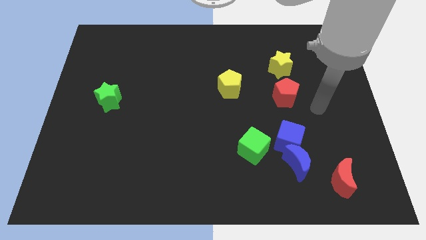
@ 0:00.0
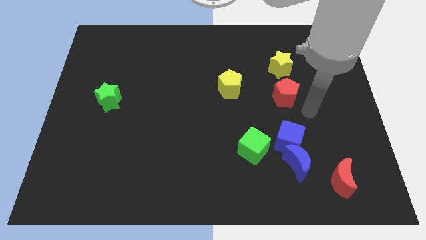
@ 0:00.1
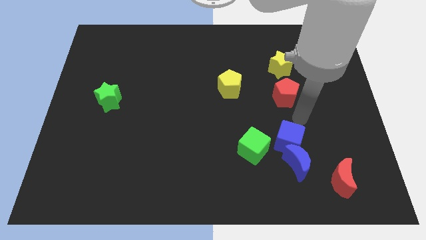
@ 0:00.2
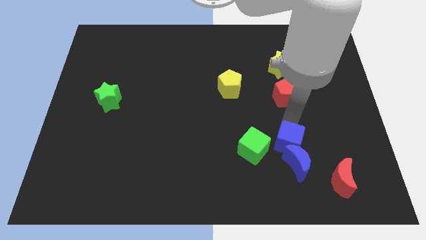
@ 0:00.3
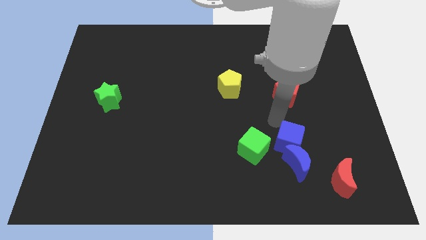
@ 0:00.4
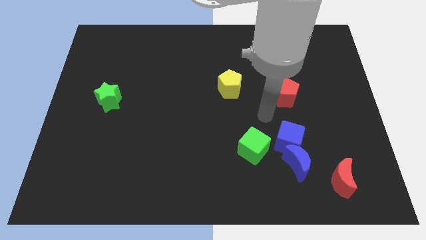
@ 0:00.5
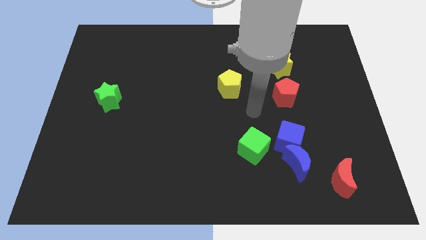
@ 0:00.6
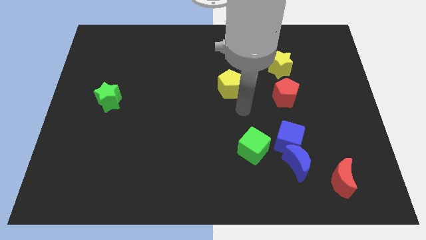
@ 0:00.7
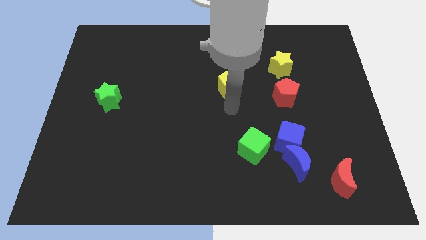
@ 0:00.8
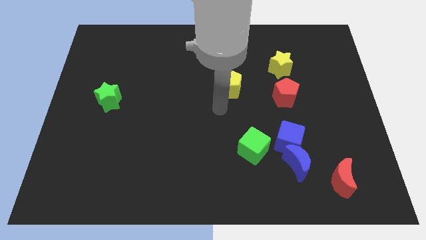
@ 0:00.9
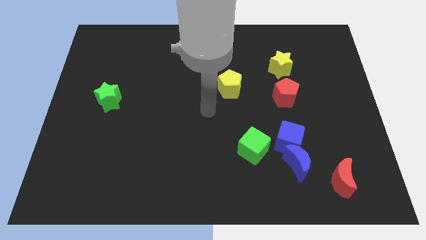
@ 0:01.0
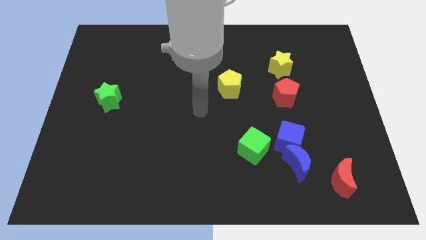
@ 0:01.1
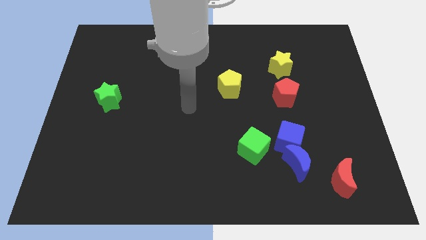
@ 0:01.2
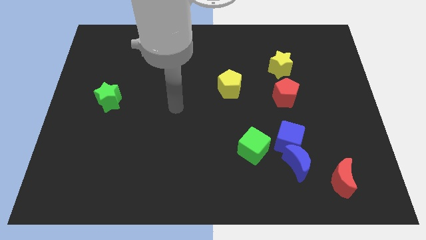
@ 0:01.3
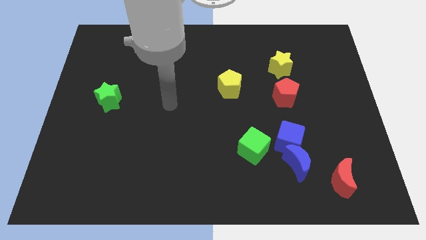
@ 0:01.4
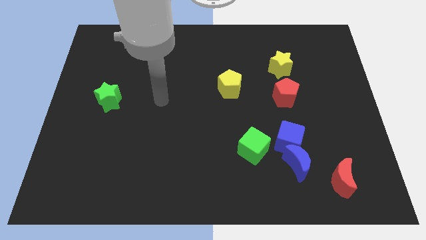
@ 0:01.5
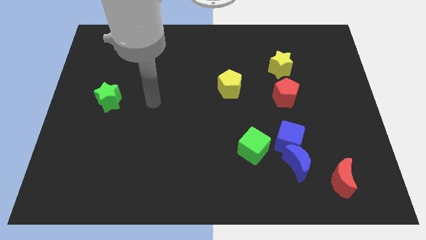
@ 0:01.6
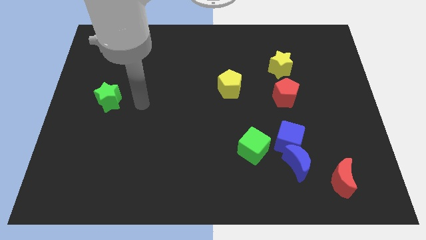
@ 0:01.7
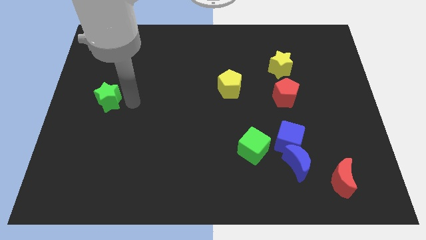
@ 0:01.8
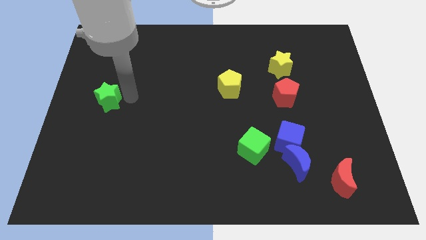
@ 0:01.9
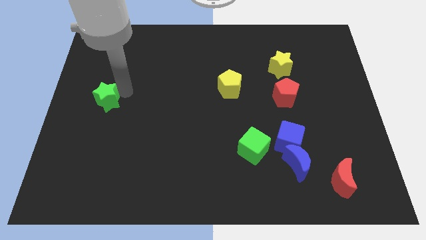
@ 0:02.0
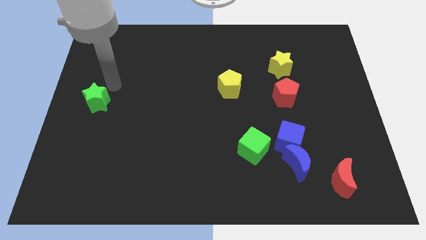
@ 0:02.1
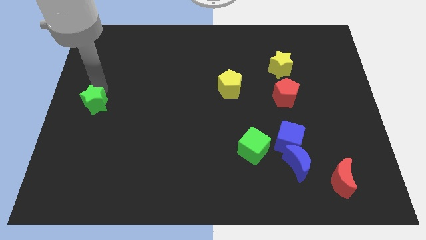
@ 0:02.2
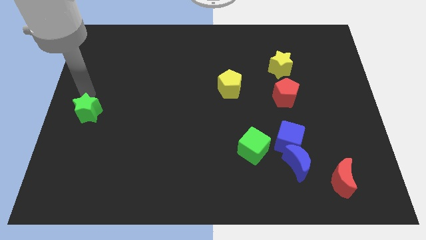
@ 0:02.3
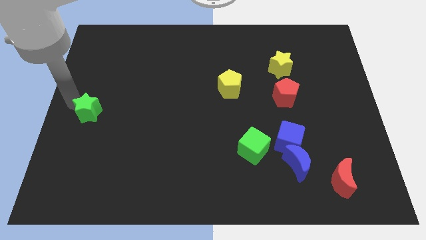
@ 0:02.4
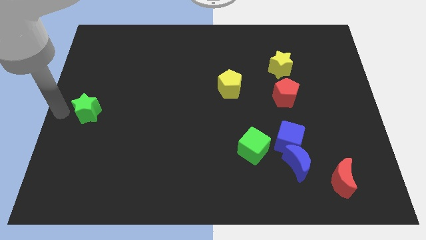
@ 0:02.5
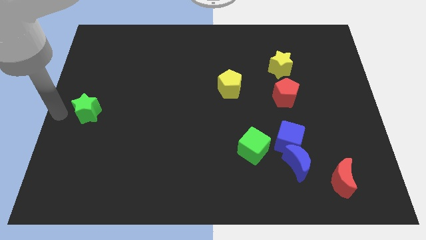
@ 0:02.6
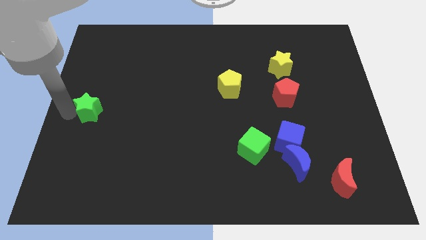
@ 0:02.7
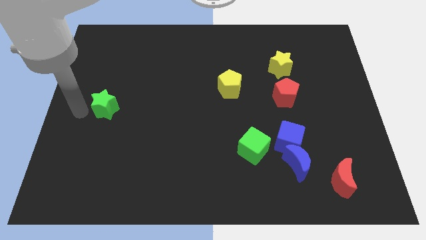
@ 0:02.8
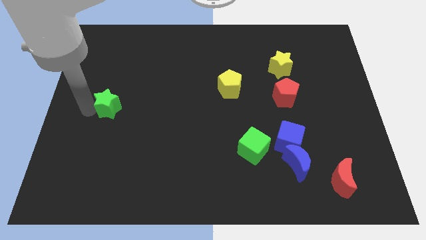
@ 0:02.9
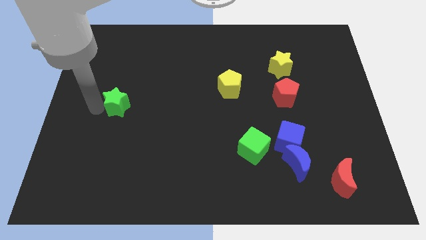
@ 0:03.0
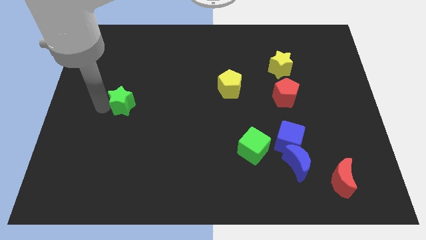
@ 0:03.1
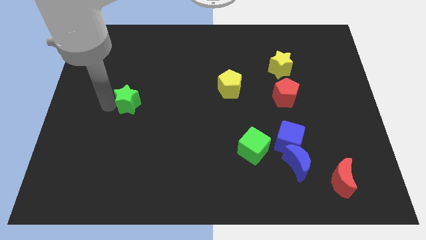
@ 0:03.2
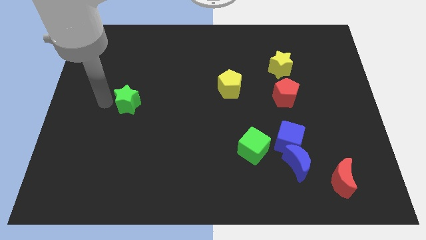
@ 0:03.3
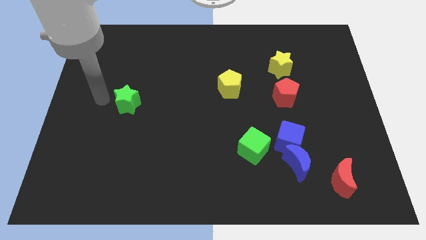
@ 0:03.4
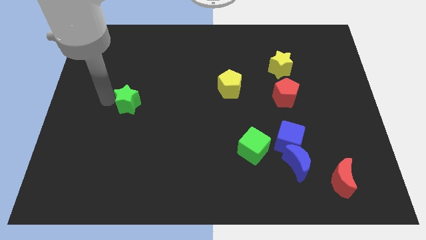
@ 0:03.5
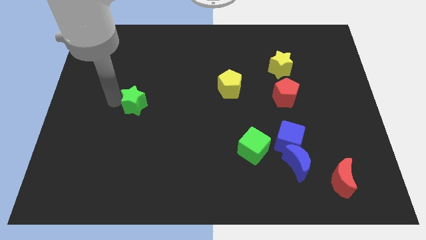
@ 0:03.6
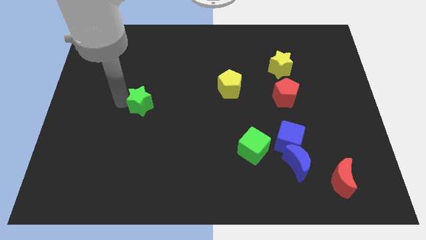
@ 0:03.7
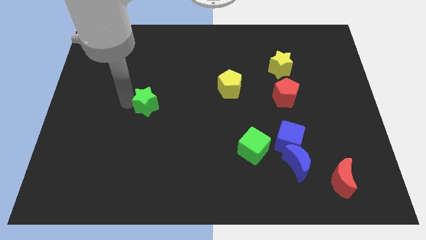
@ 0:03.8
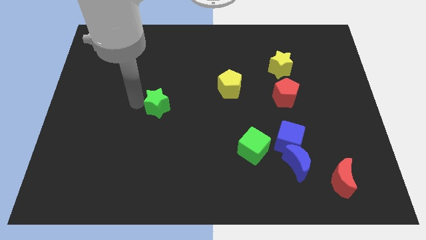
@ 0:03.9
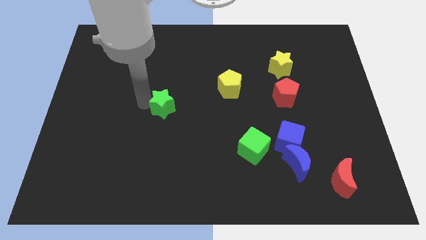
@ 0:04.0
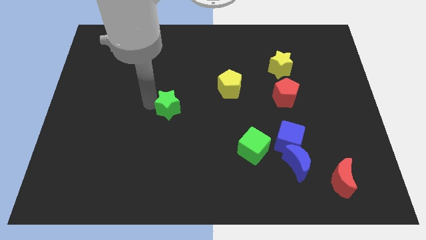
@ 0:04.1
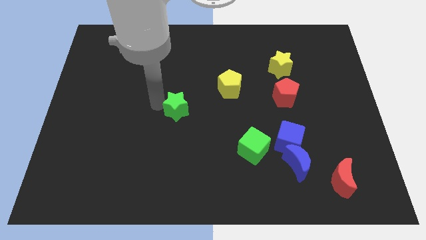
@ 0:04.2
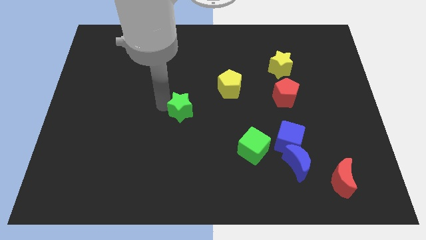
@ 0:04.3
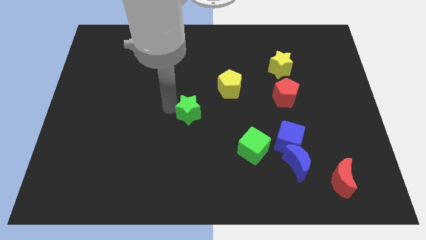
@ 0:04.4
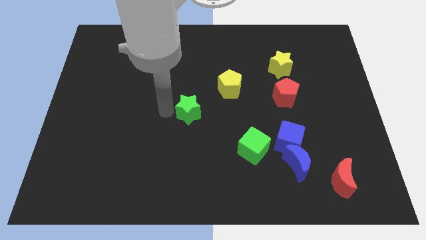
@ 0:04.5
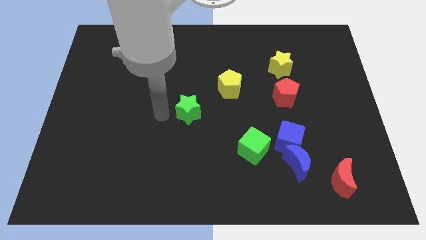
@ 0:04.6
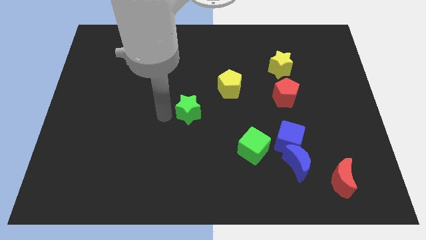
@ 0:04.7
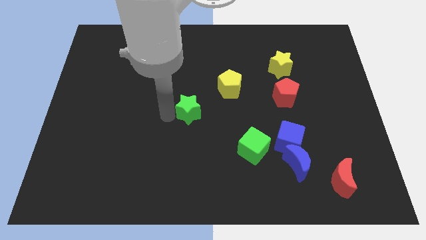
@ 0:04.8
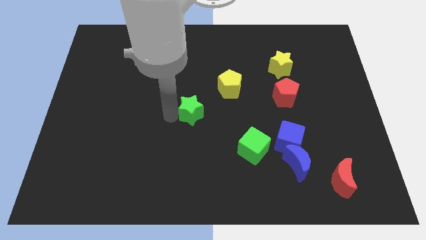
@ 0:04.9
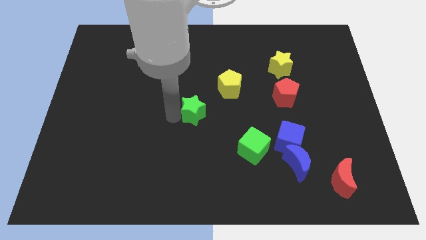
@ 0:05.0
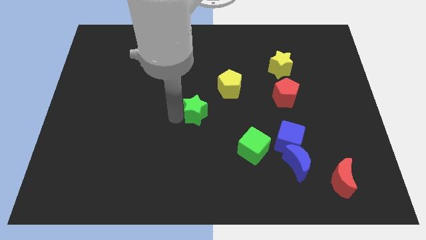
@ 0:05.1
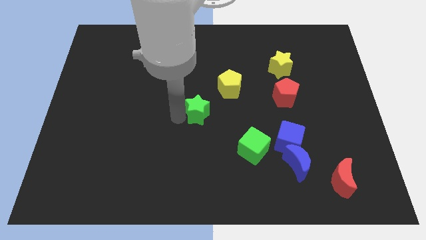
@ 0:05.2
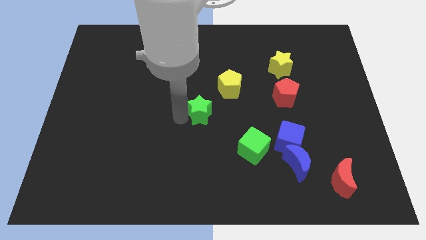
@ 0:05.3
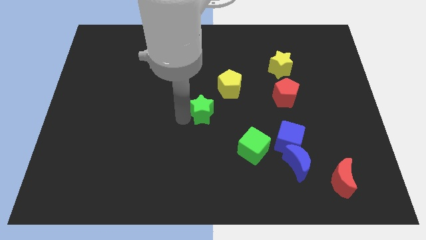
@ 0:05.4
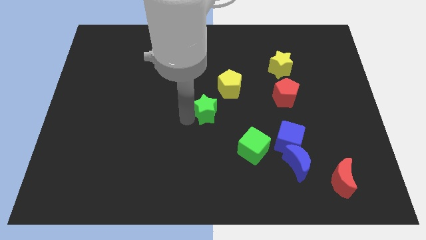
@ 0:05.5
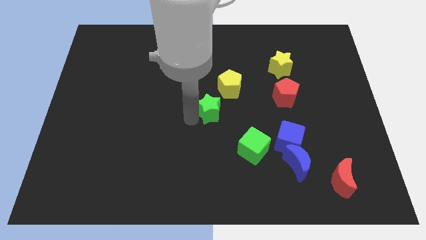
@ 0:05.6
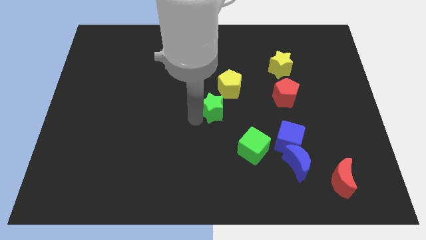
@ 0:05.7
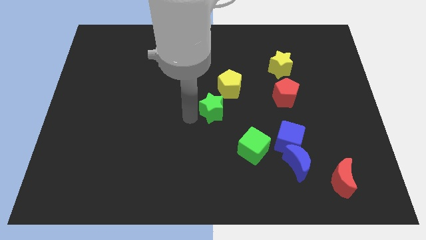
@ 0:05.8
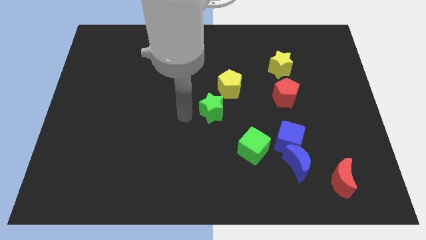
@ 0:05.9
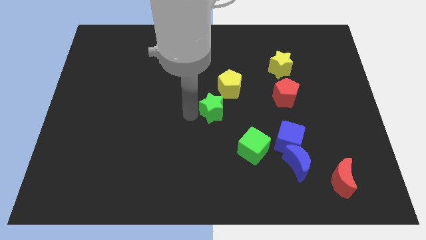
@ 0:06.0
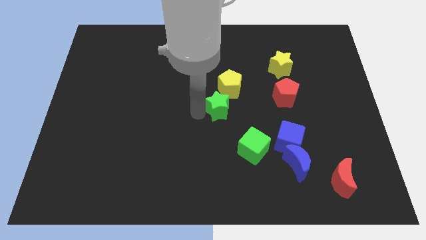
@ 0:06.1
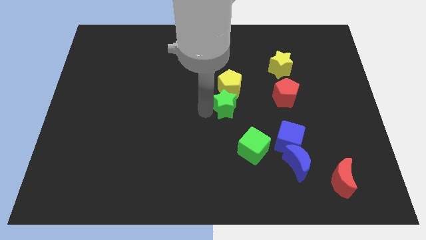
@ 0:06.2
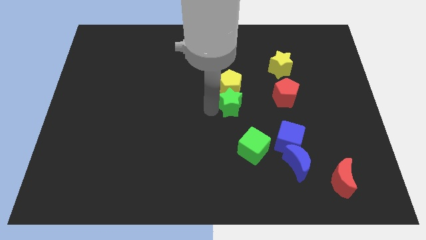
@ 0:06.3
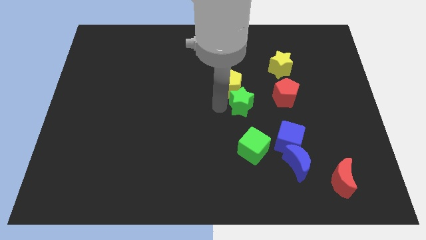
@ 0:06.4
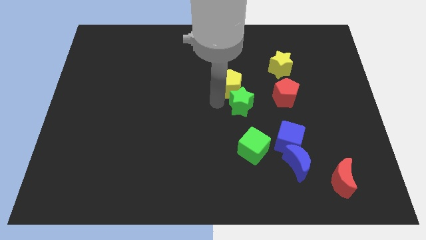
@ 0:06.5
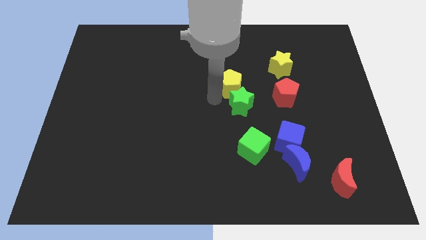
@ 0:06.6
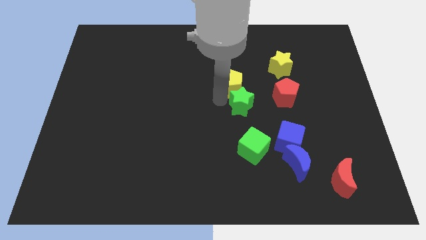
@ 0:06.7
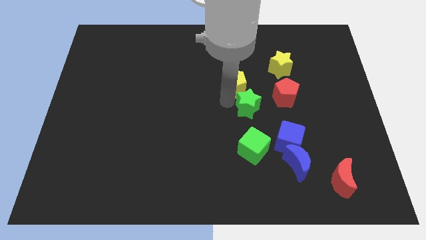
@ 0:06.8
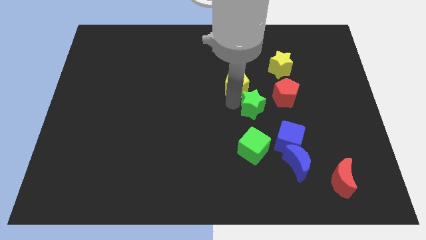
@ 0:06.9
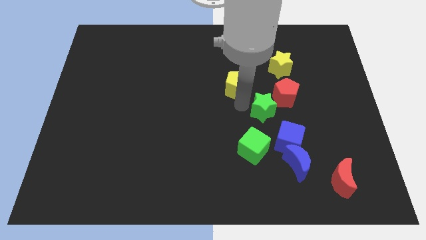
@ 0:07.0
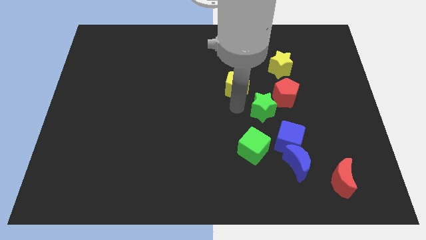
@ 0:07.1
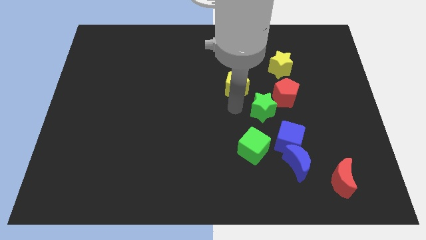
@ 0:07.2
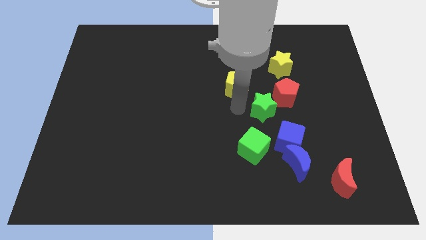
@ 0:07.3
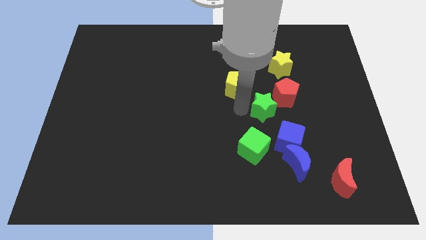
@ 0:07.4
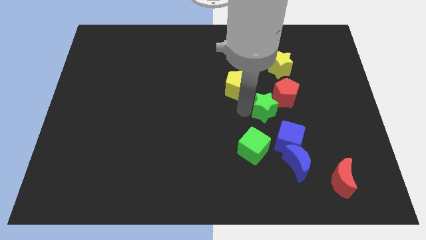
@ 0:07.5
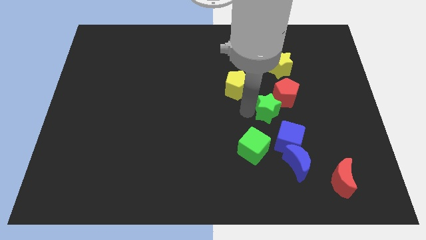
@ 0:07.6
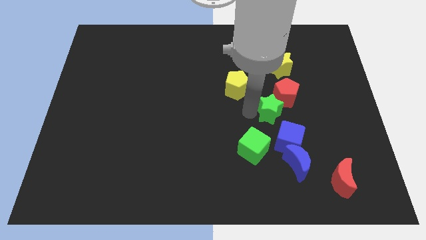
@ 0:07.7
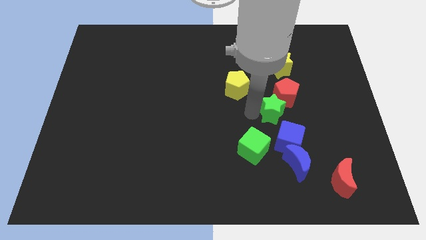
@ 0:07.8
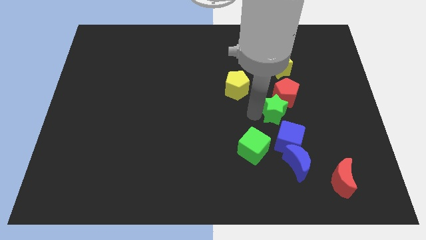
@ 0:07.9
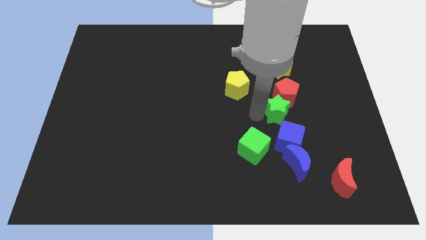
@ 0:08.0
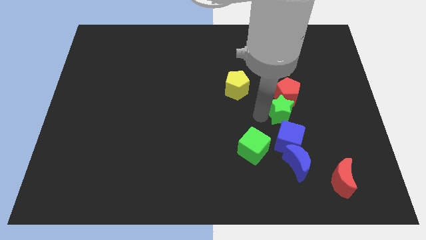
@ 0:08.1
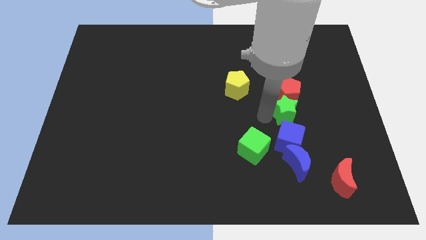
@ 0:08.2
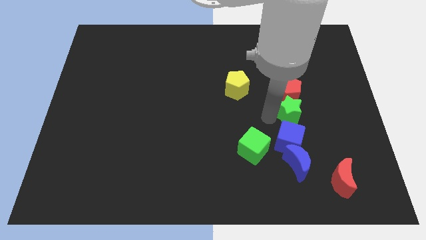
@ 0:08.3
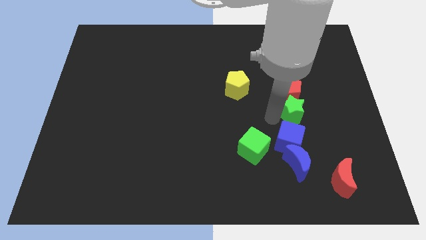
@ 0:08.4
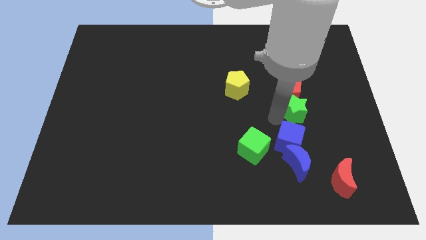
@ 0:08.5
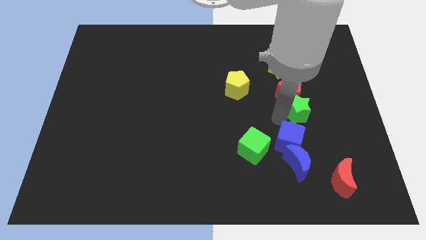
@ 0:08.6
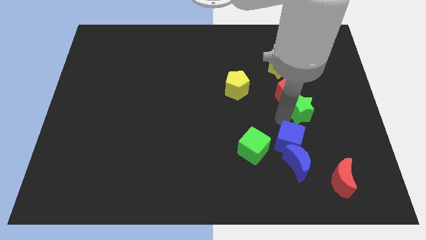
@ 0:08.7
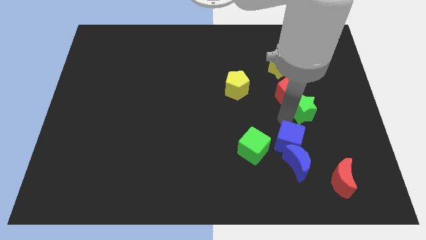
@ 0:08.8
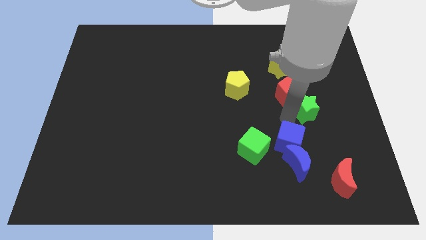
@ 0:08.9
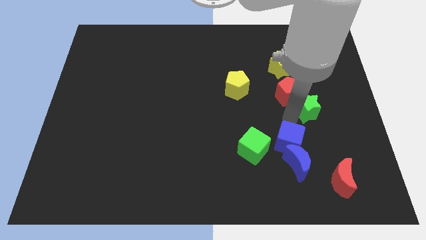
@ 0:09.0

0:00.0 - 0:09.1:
put the green star right of the red pentagon
